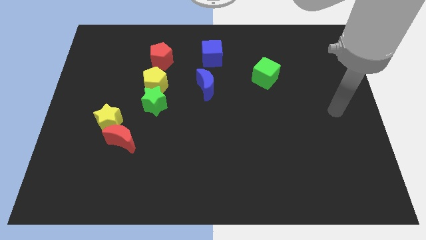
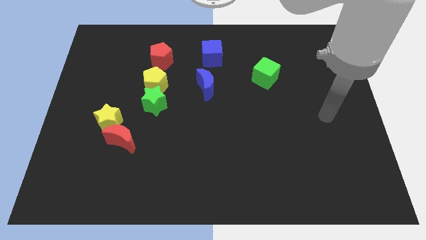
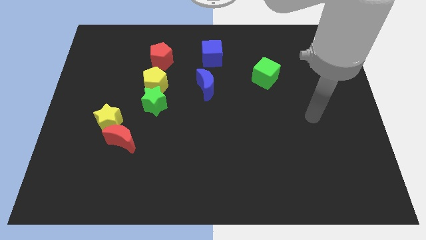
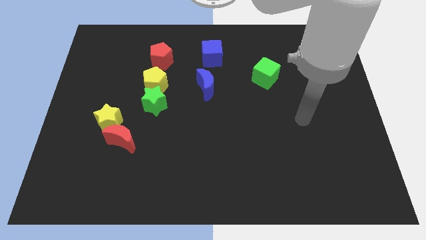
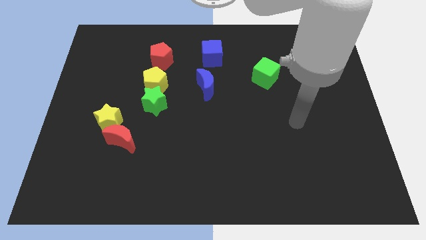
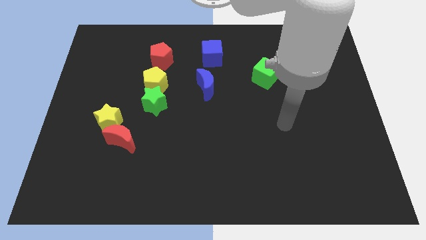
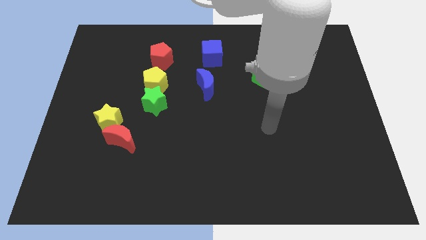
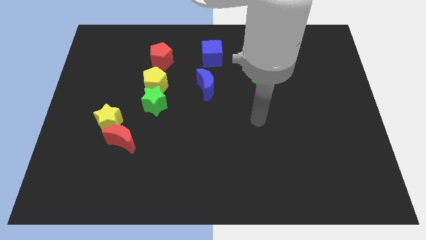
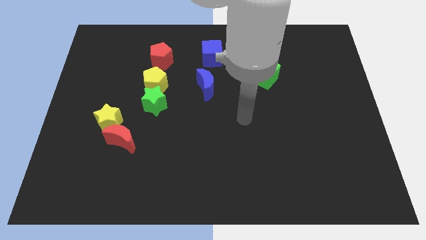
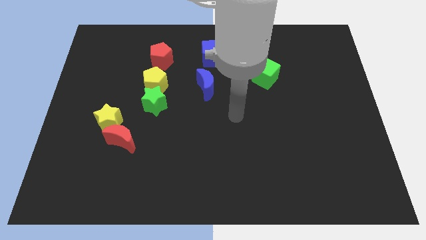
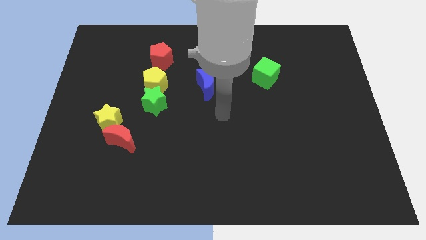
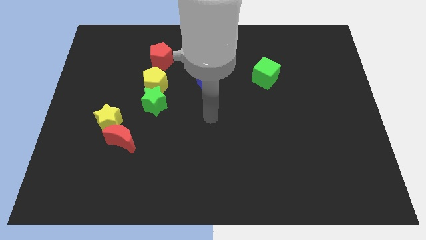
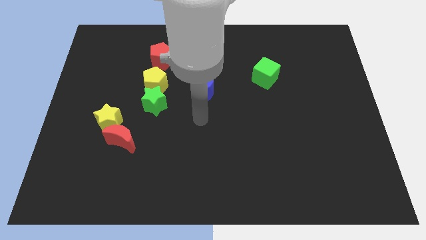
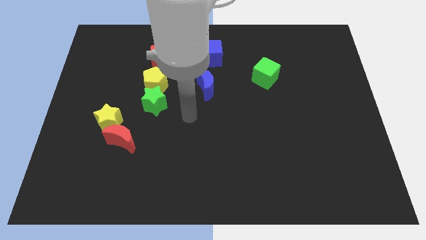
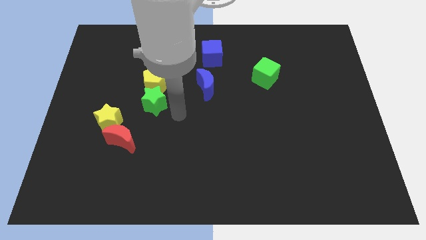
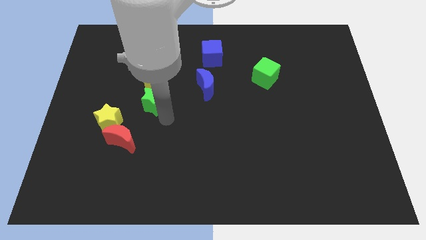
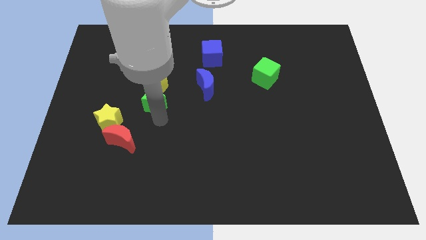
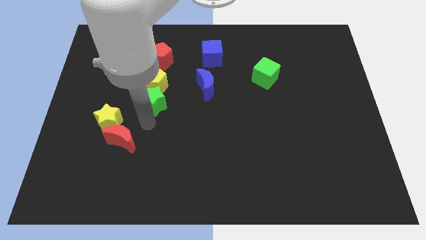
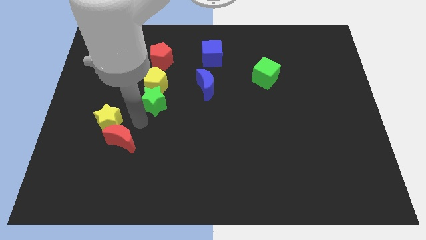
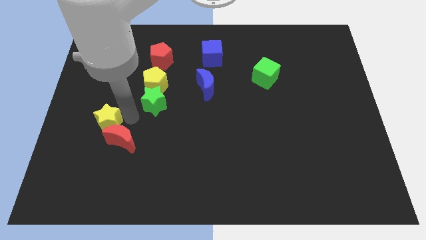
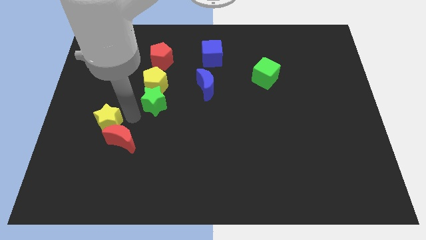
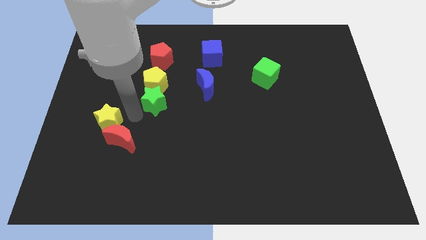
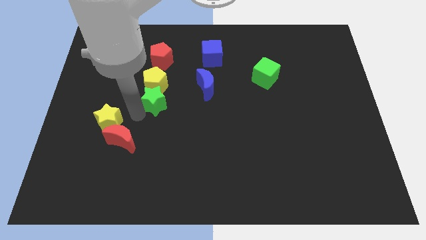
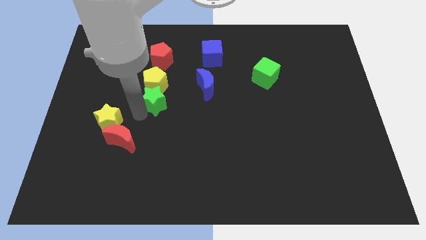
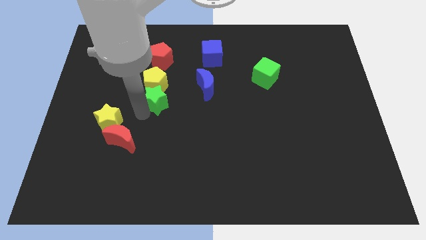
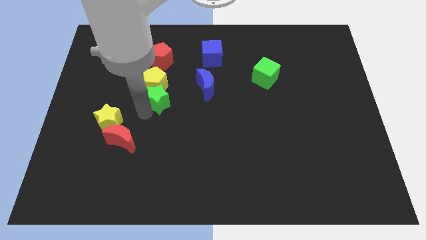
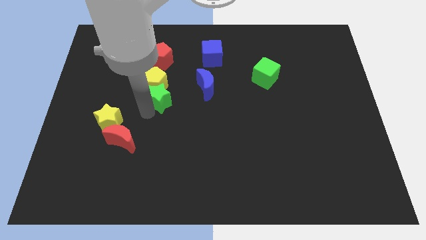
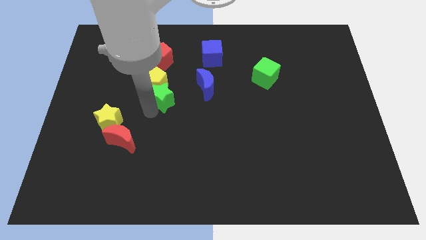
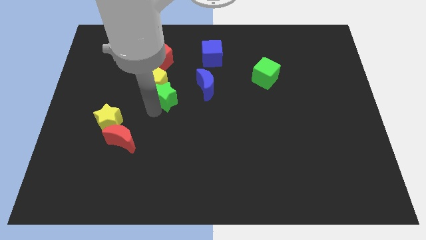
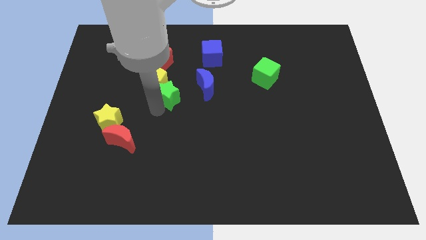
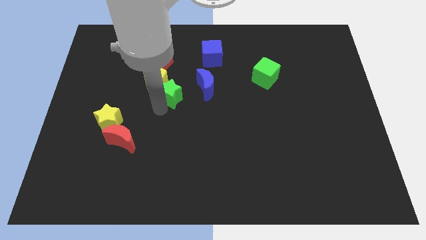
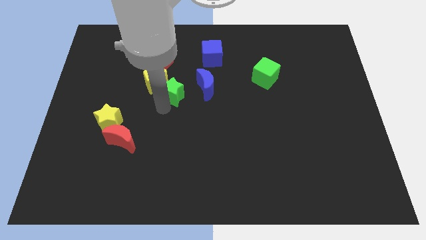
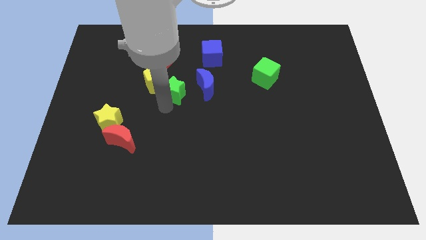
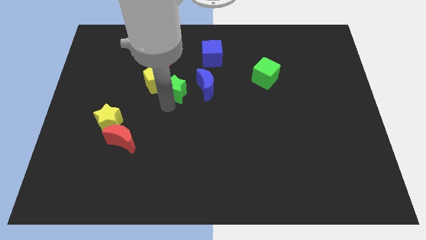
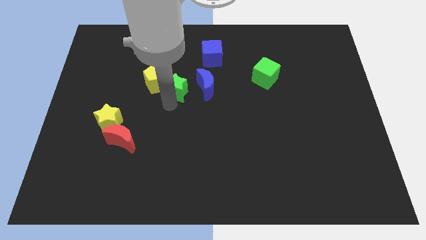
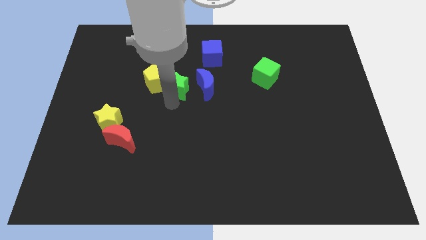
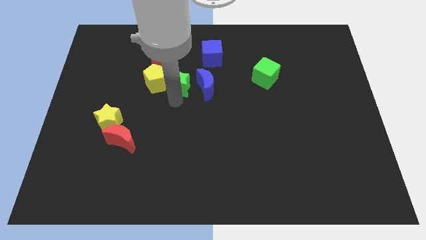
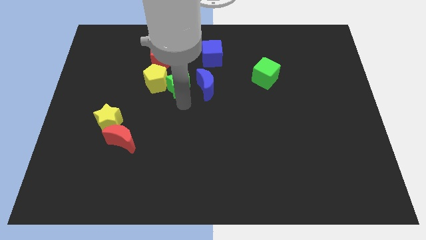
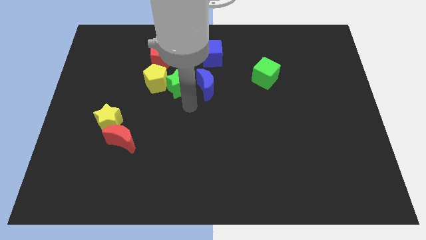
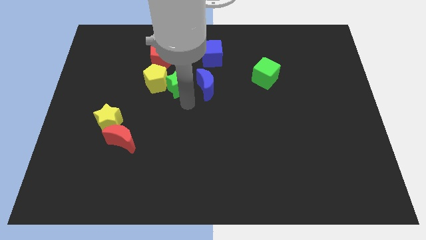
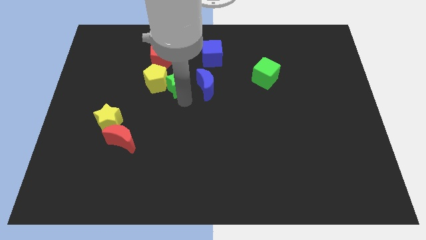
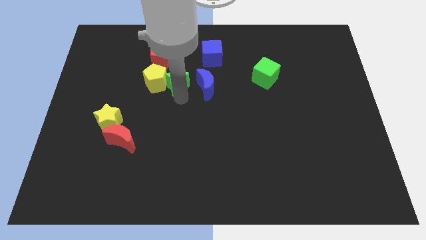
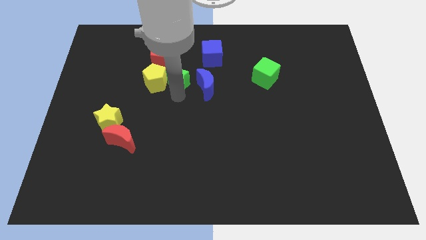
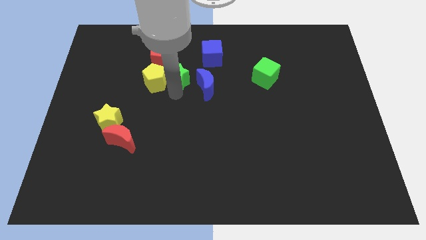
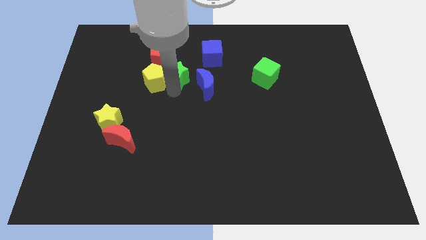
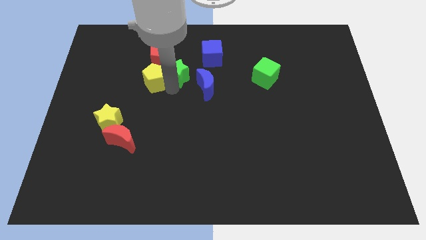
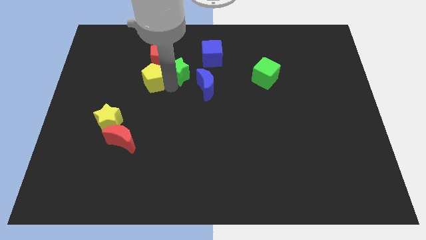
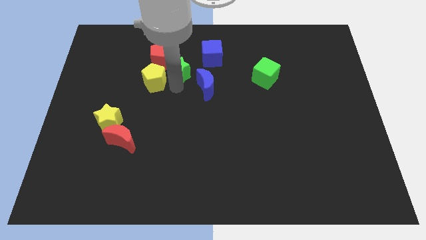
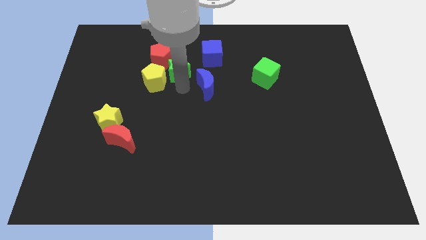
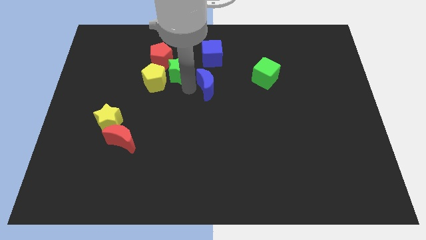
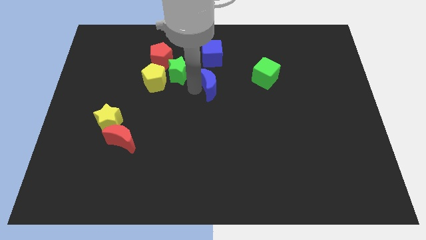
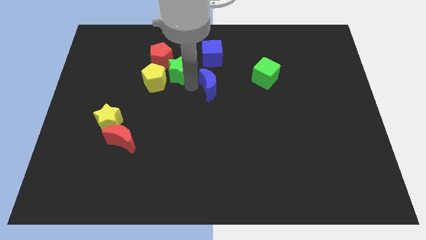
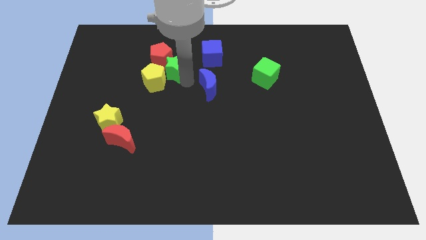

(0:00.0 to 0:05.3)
put the green star towards the red pentagon

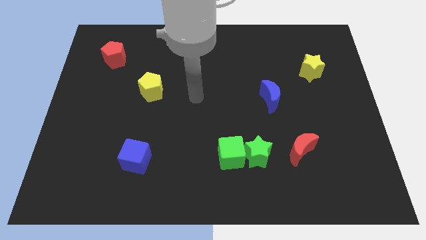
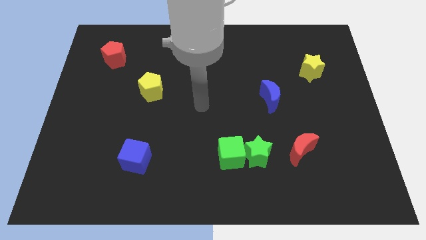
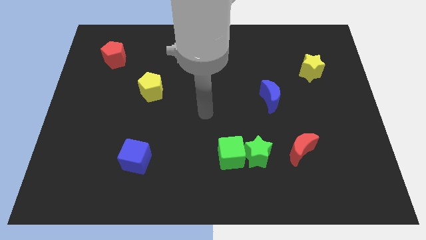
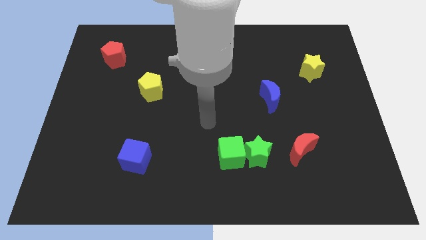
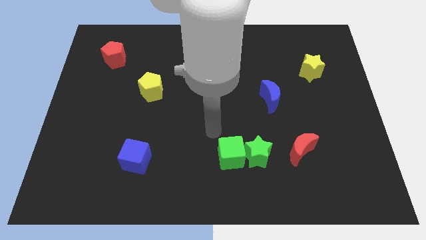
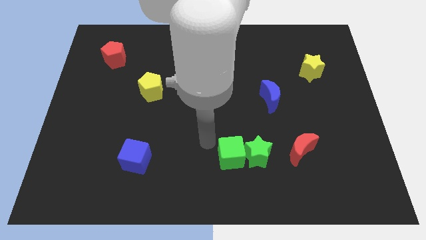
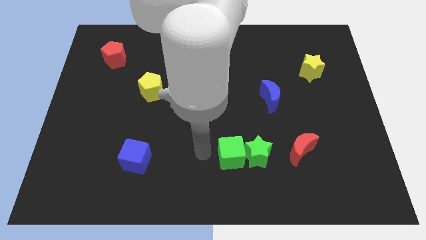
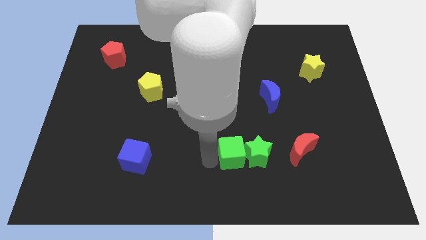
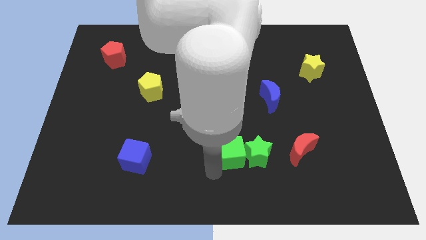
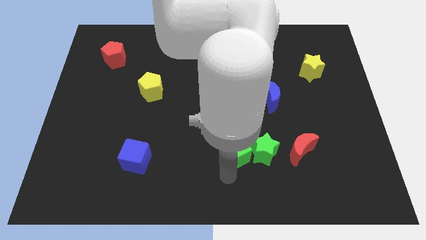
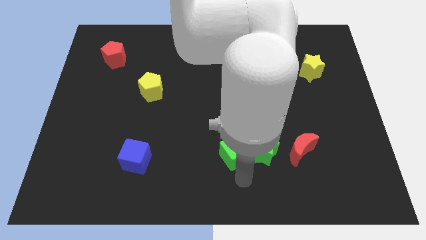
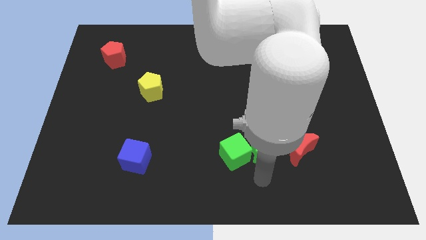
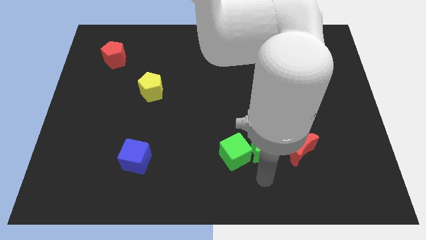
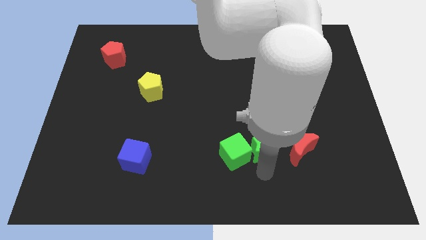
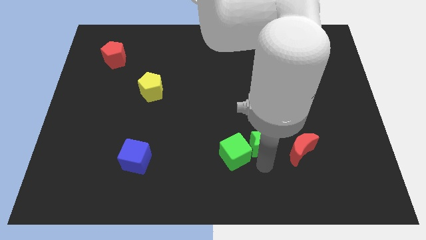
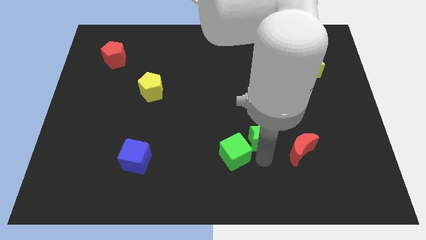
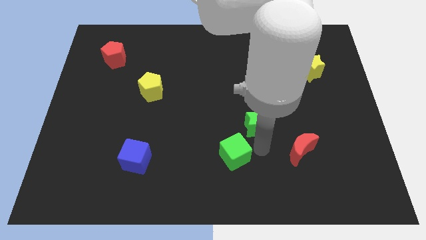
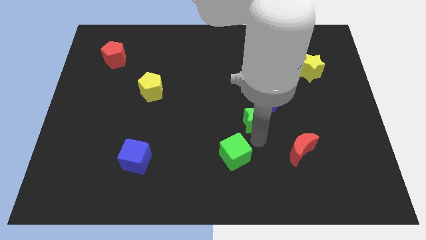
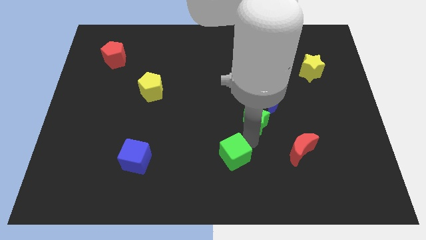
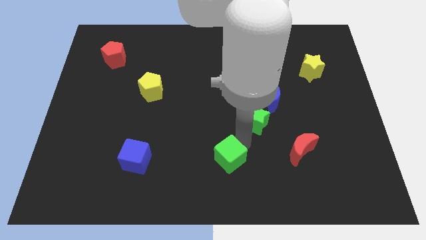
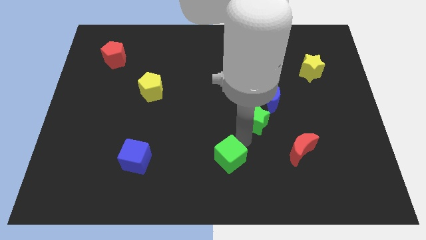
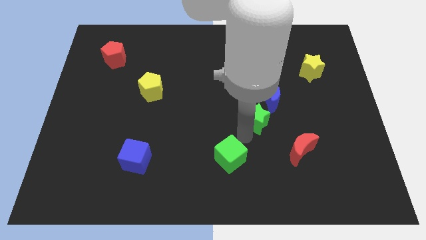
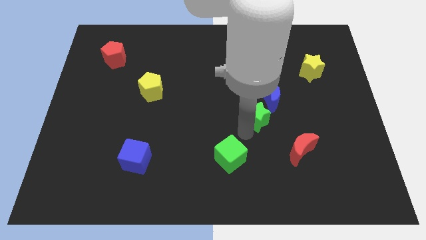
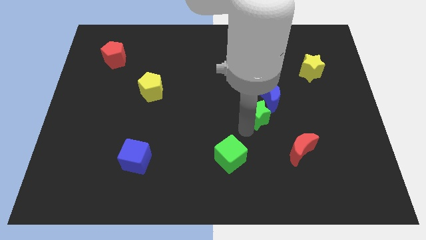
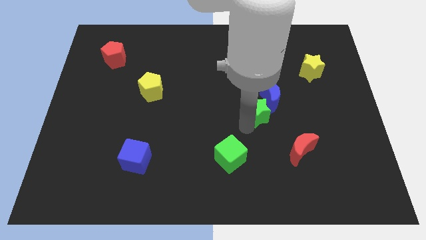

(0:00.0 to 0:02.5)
push the green star to the blue moon

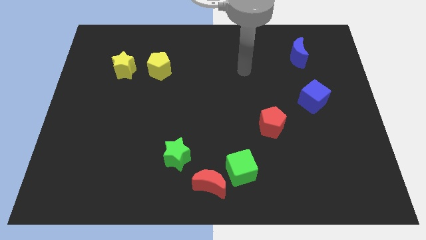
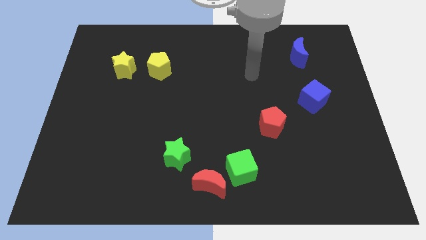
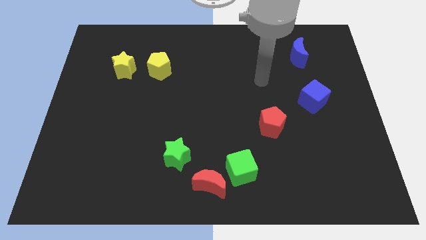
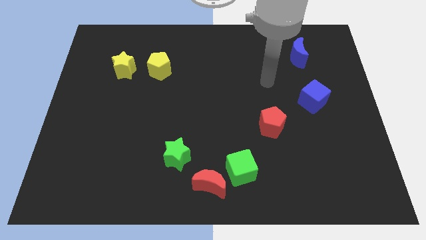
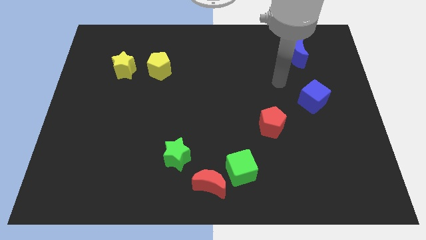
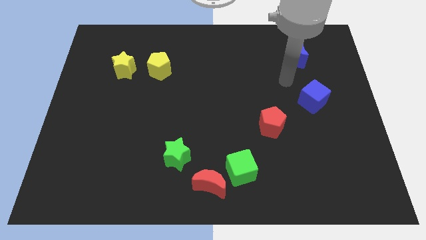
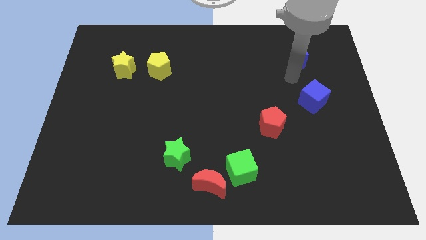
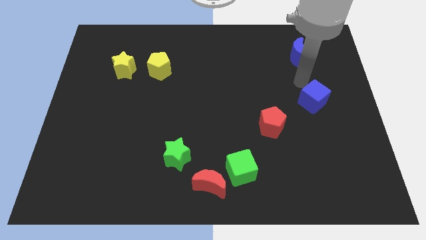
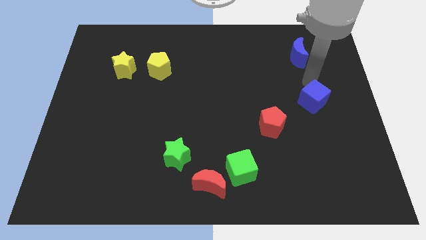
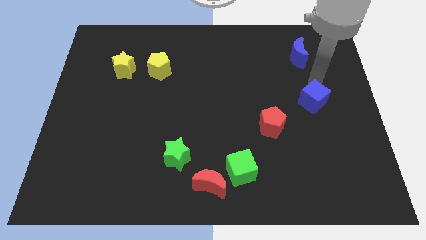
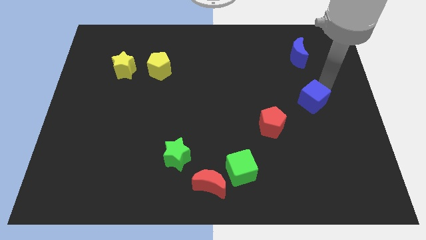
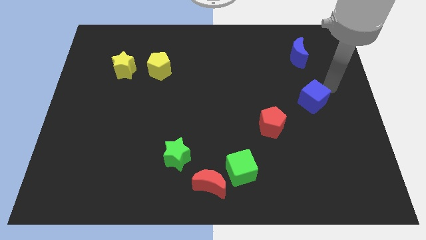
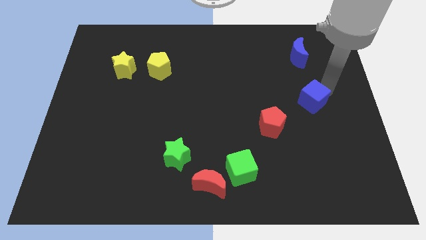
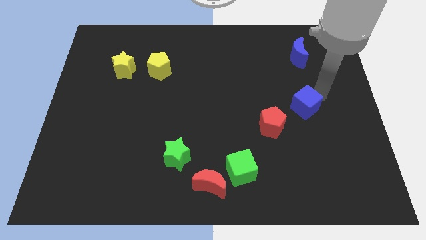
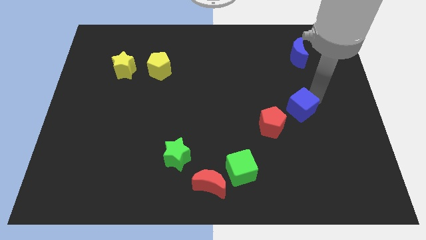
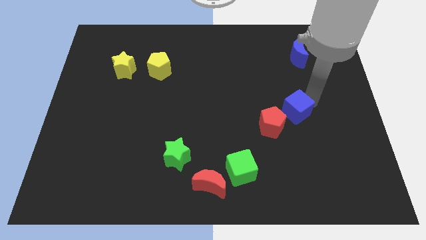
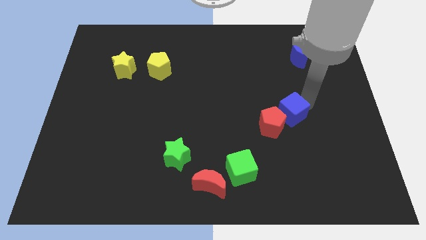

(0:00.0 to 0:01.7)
move the blue cube close to the red pentagon
